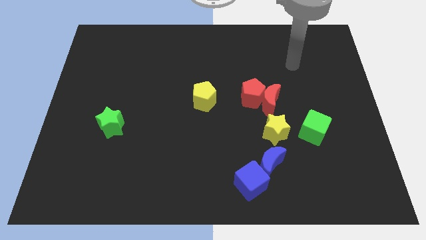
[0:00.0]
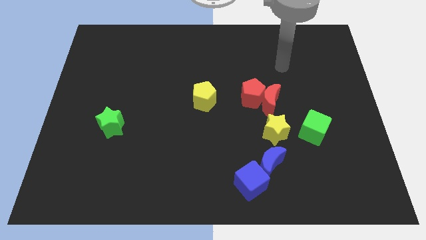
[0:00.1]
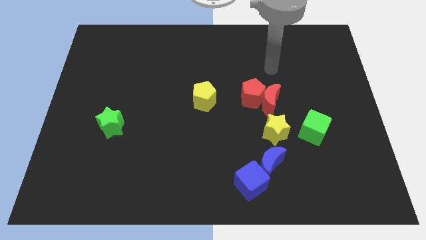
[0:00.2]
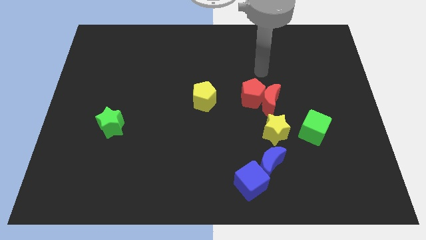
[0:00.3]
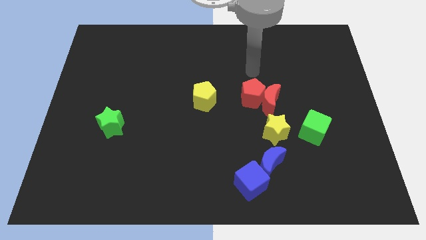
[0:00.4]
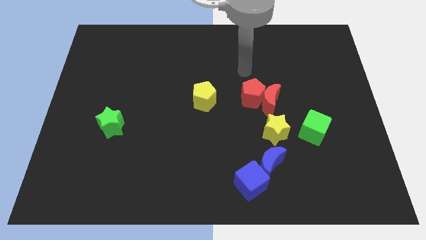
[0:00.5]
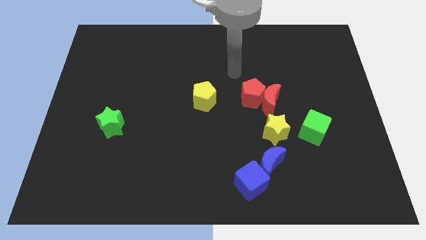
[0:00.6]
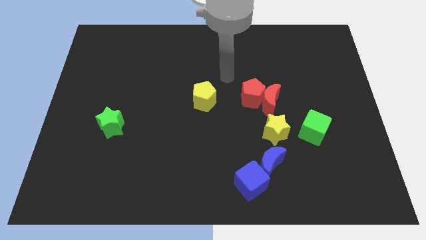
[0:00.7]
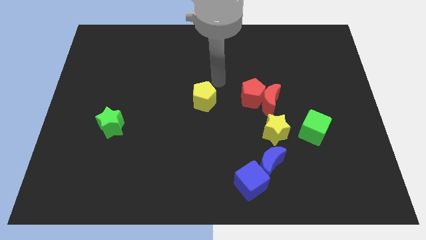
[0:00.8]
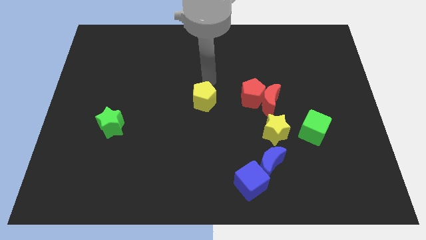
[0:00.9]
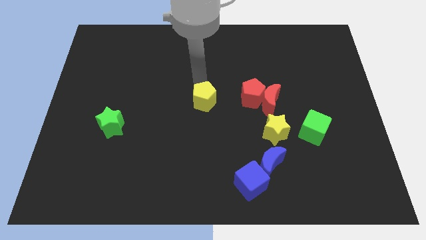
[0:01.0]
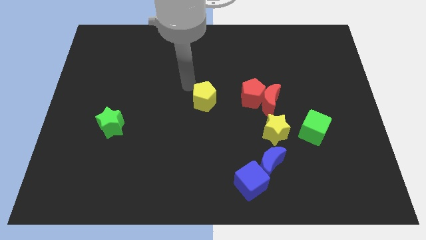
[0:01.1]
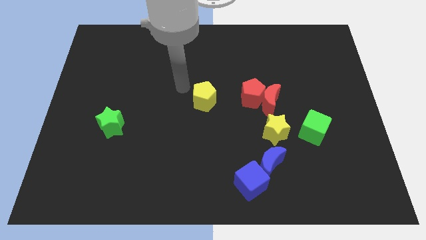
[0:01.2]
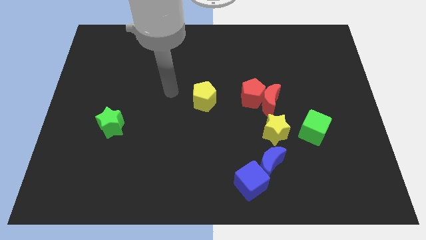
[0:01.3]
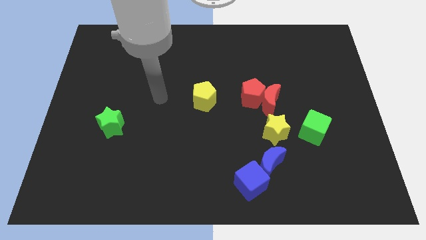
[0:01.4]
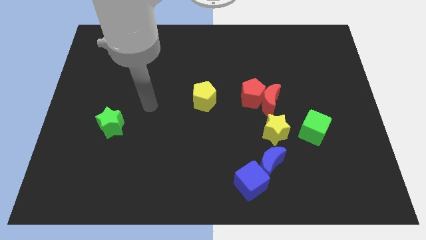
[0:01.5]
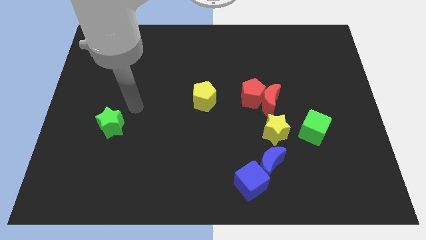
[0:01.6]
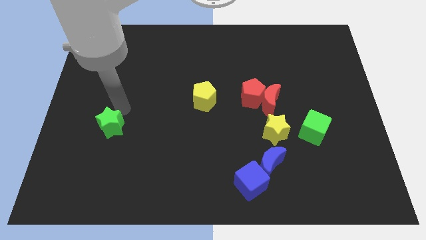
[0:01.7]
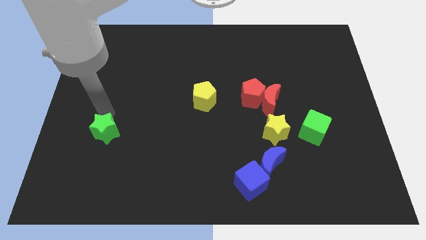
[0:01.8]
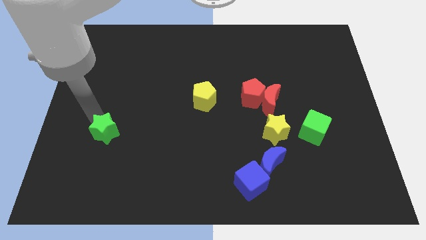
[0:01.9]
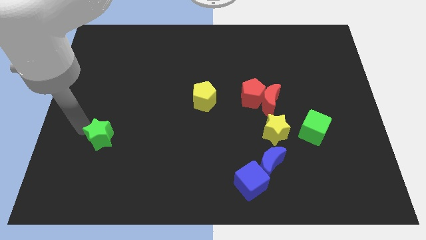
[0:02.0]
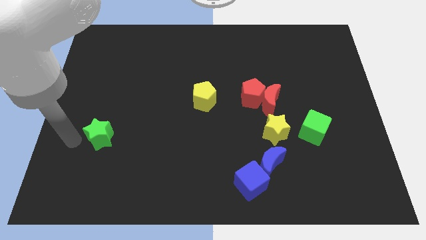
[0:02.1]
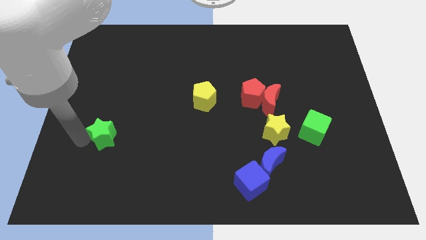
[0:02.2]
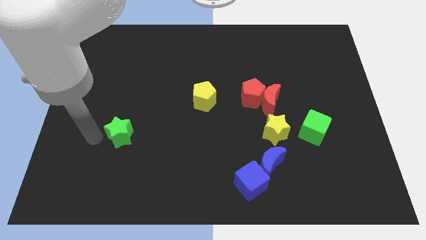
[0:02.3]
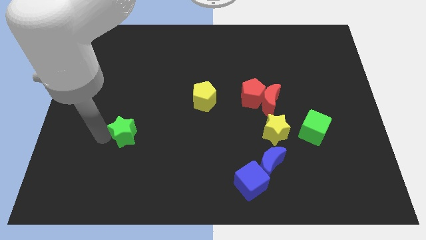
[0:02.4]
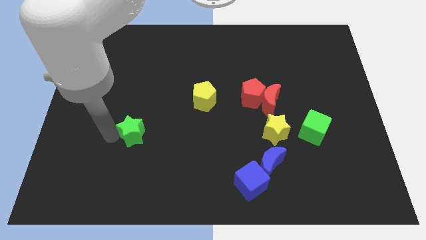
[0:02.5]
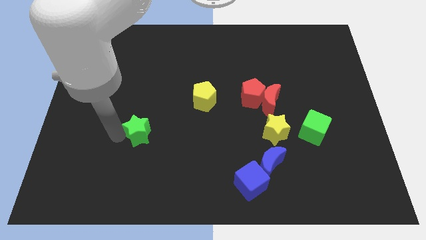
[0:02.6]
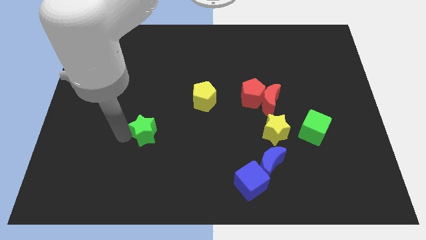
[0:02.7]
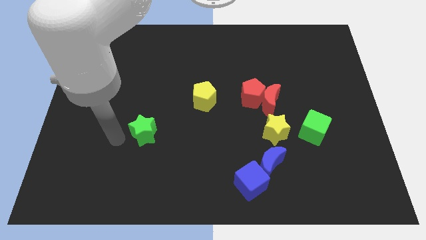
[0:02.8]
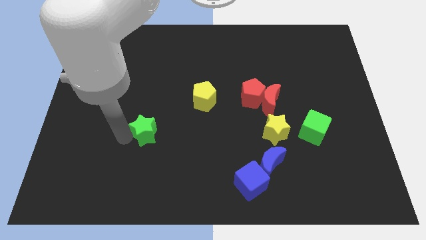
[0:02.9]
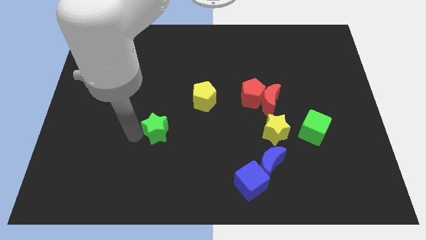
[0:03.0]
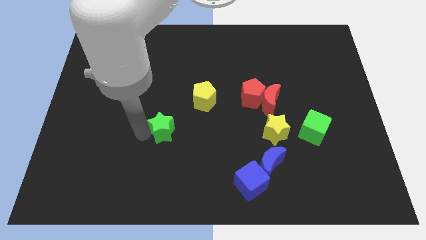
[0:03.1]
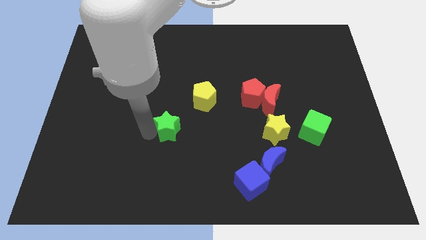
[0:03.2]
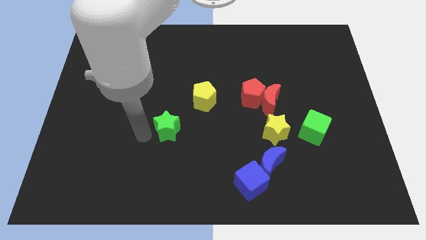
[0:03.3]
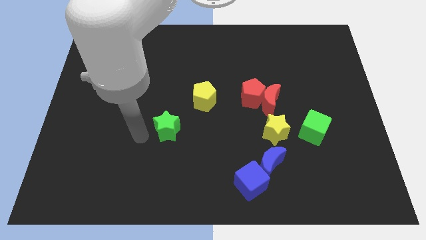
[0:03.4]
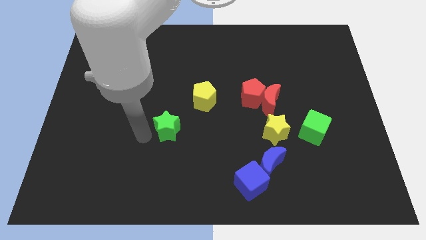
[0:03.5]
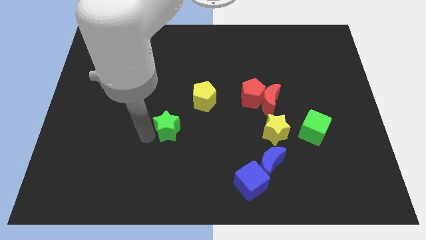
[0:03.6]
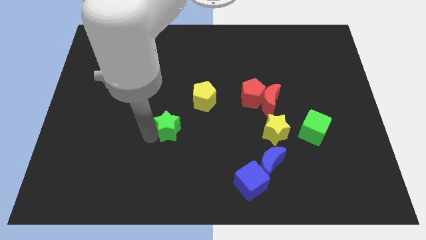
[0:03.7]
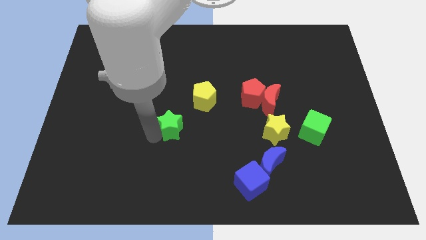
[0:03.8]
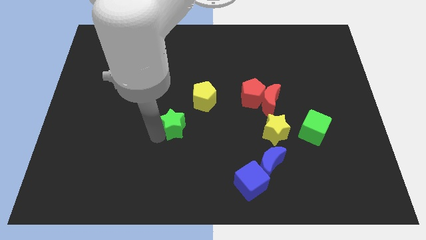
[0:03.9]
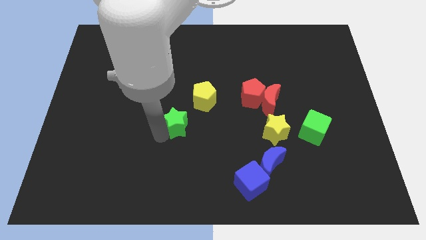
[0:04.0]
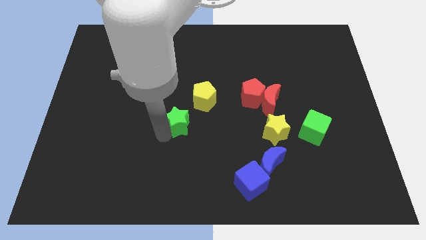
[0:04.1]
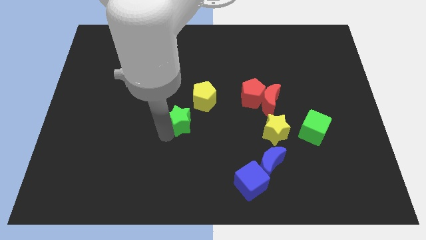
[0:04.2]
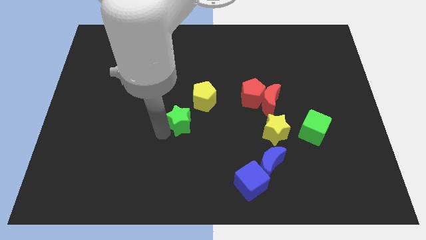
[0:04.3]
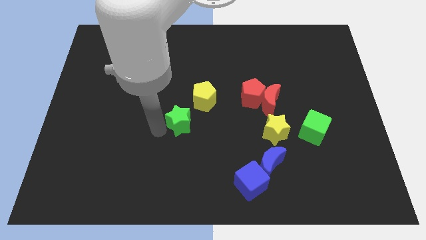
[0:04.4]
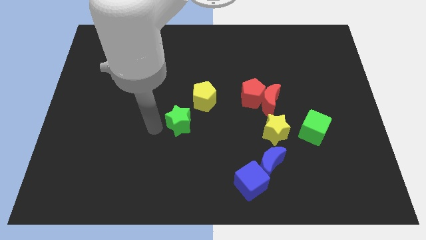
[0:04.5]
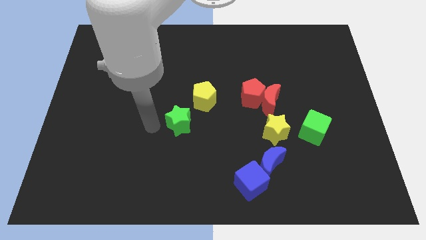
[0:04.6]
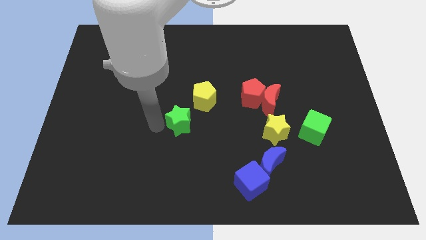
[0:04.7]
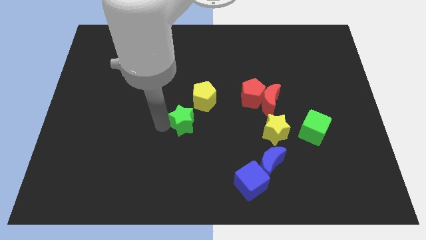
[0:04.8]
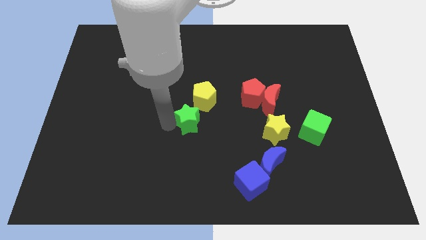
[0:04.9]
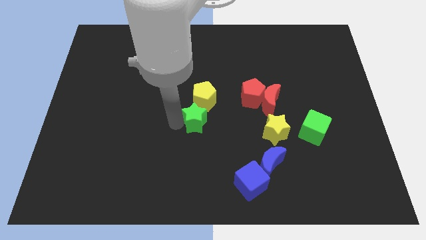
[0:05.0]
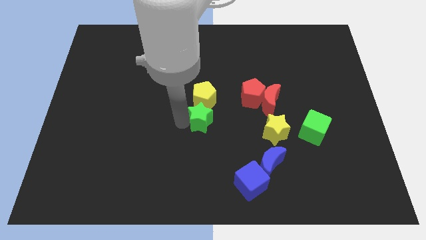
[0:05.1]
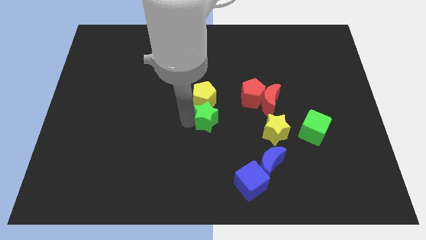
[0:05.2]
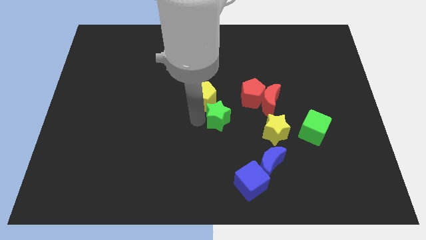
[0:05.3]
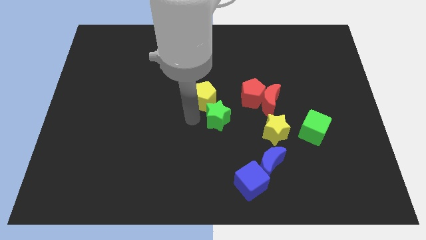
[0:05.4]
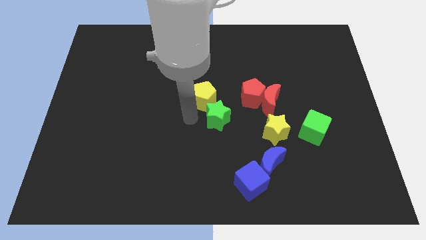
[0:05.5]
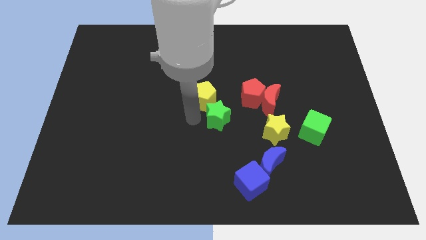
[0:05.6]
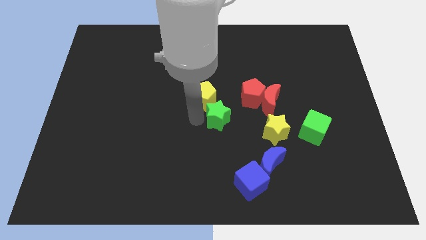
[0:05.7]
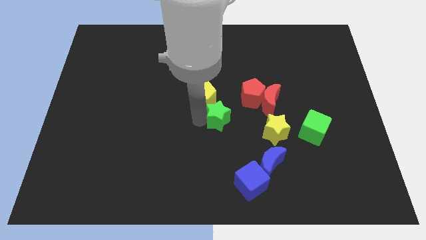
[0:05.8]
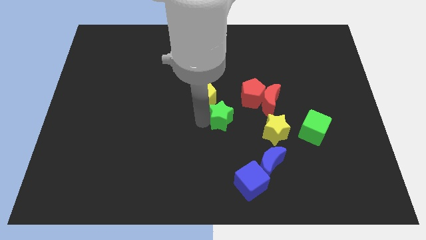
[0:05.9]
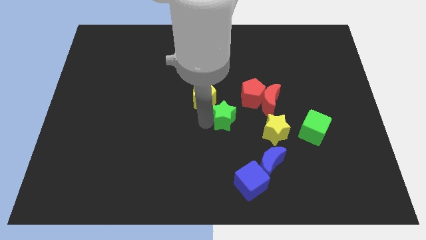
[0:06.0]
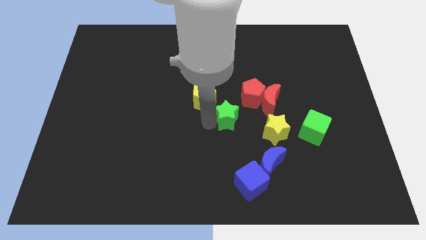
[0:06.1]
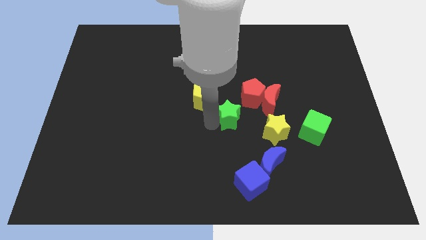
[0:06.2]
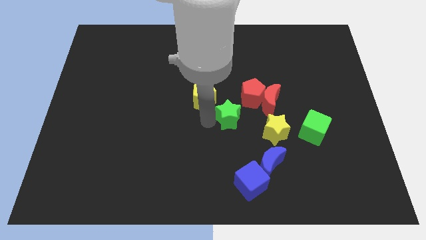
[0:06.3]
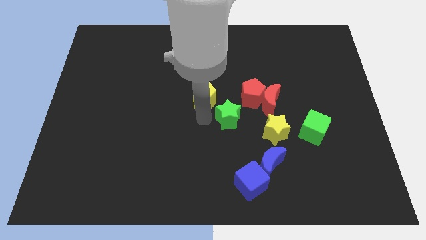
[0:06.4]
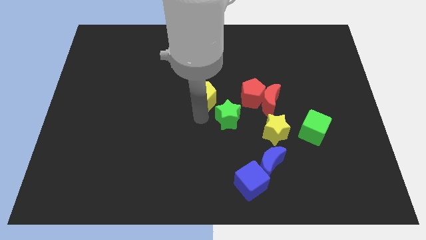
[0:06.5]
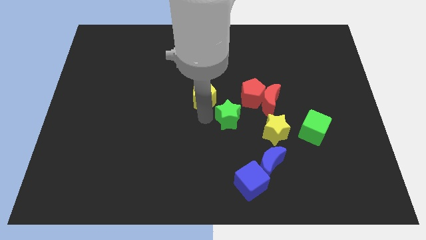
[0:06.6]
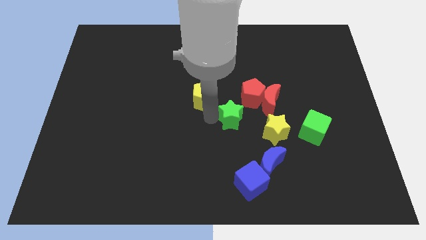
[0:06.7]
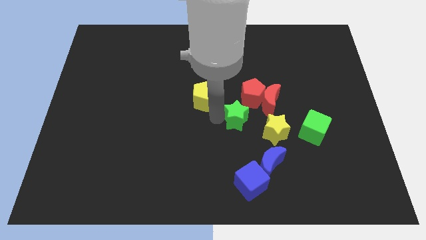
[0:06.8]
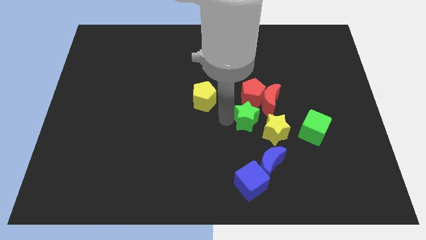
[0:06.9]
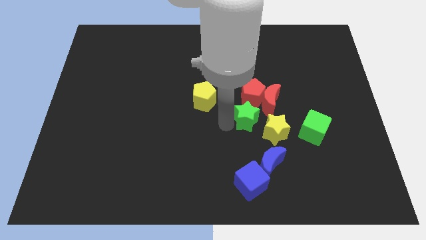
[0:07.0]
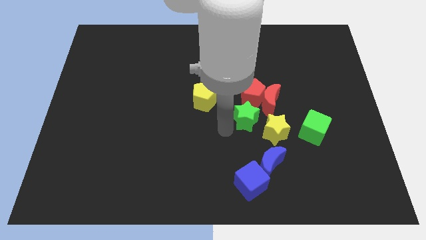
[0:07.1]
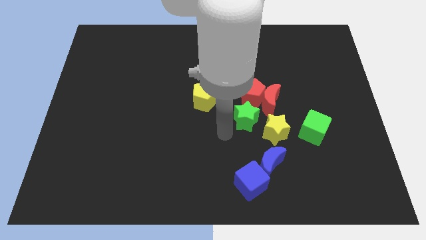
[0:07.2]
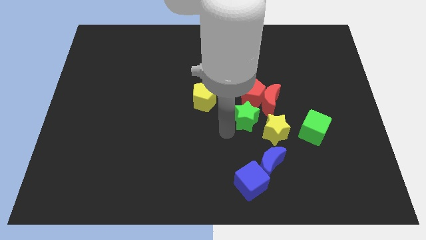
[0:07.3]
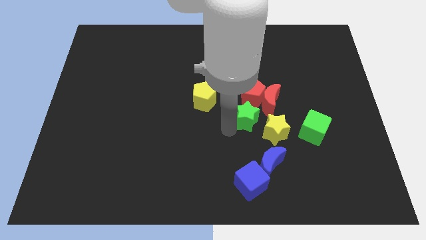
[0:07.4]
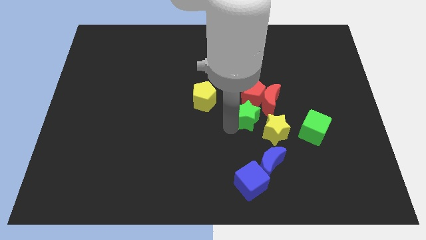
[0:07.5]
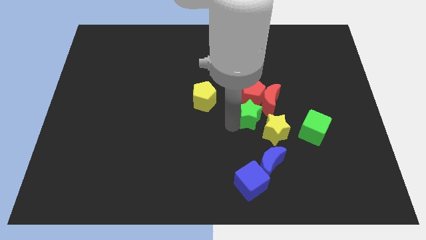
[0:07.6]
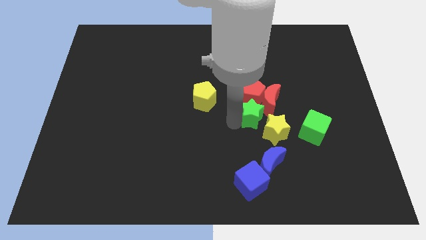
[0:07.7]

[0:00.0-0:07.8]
push the green star to the red moon
